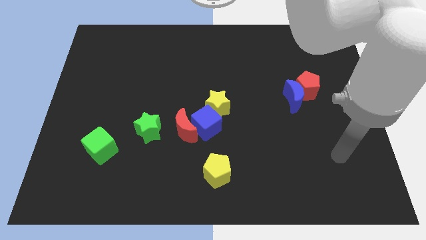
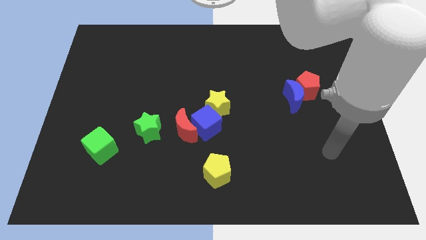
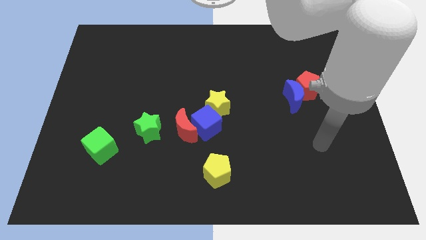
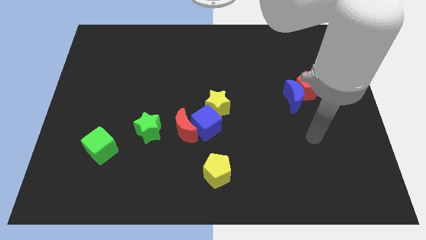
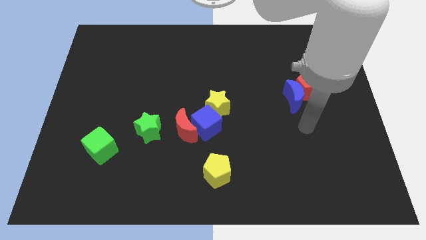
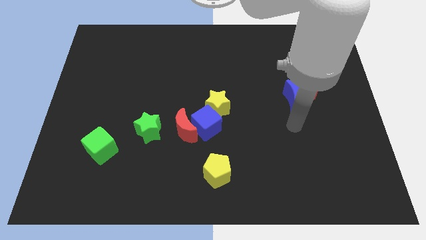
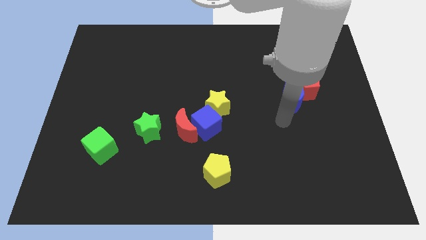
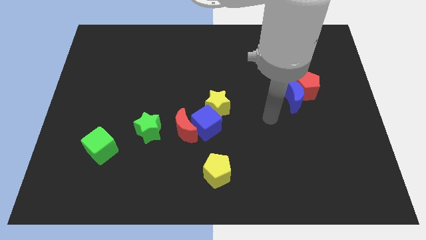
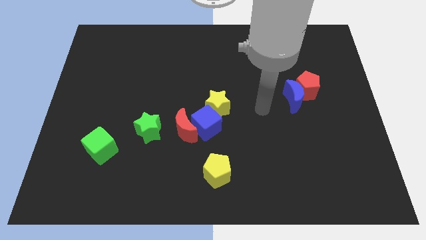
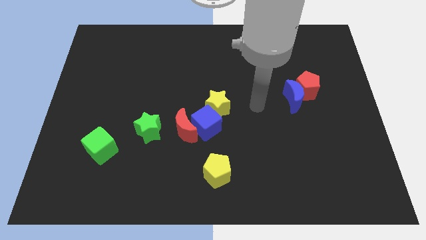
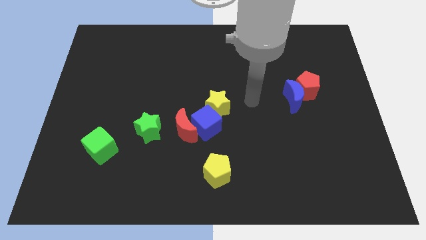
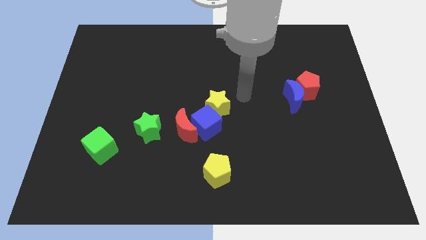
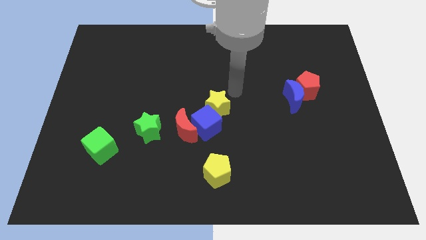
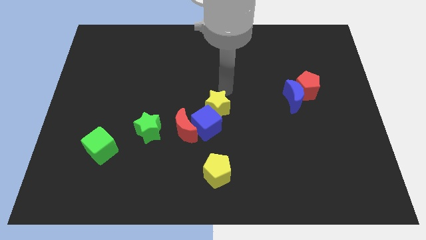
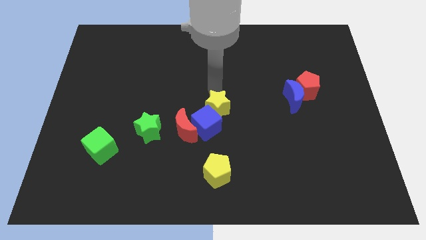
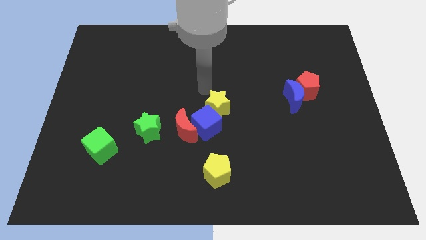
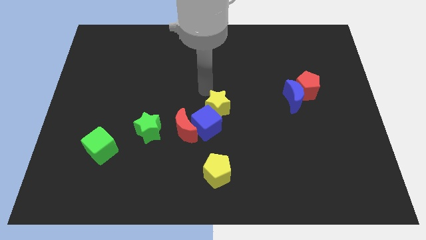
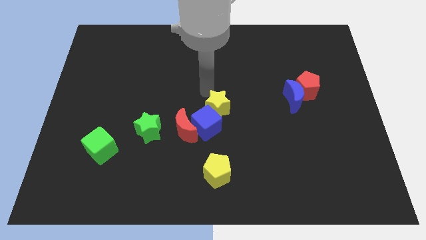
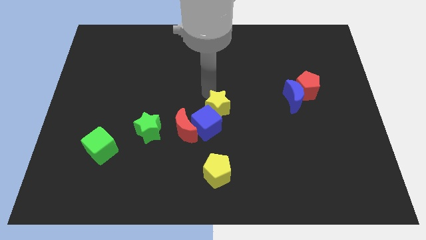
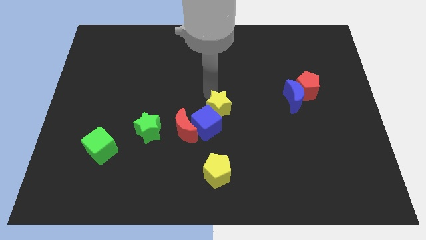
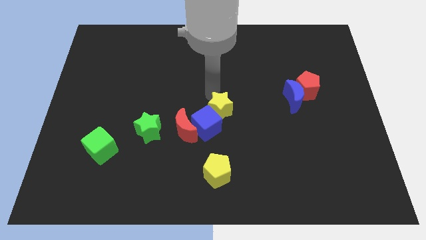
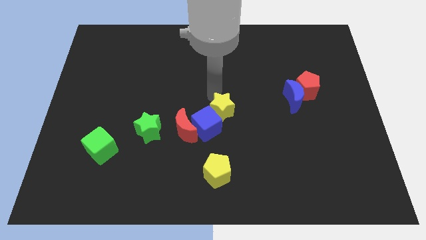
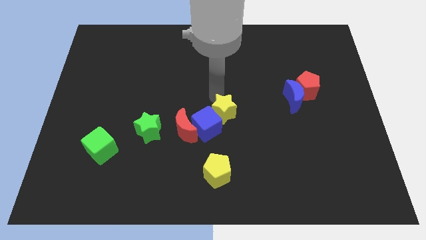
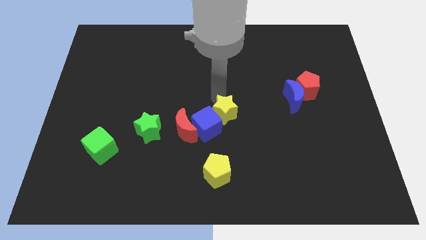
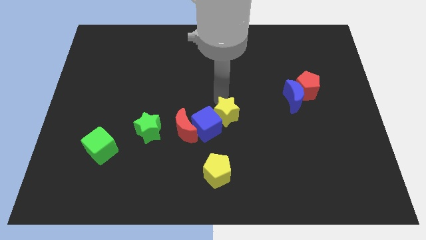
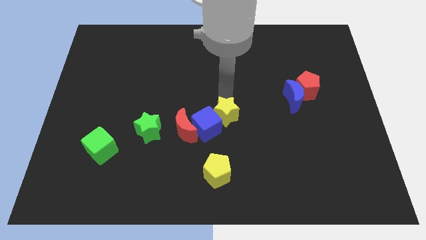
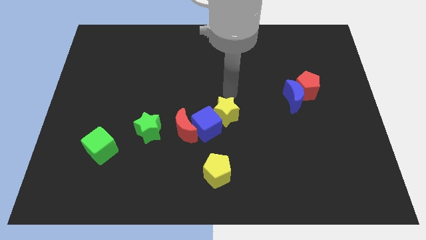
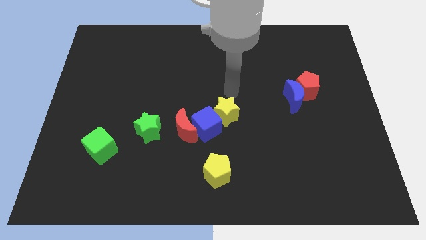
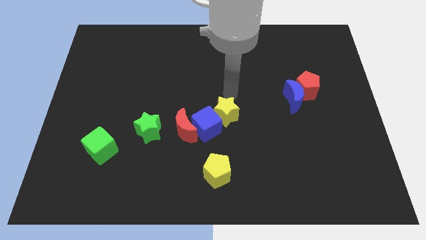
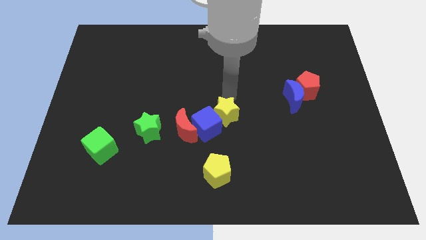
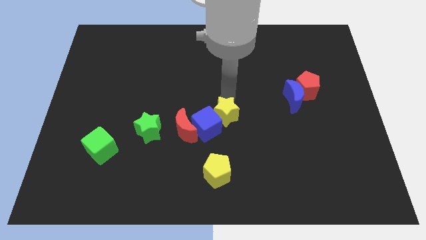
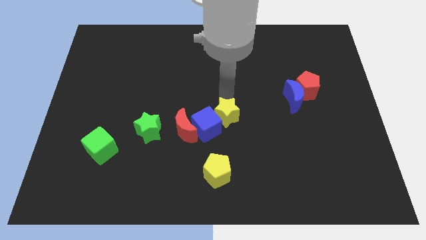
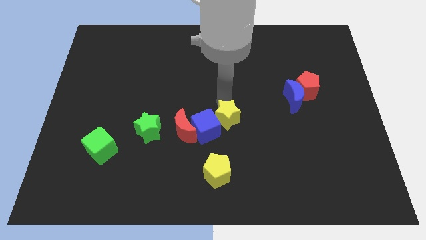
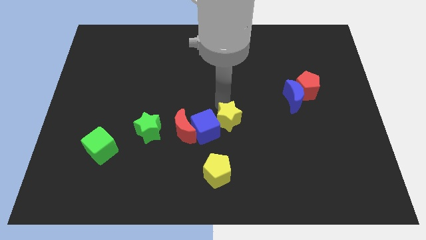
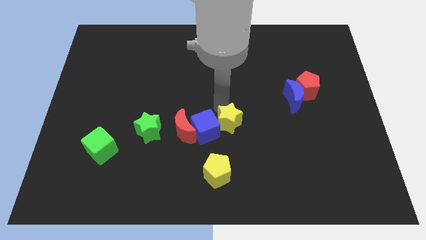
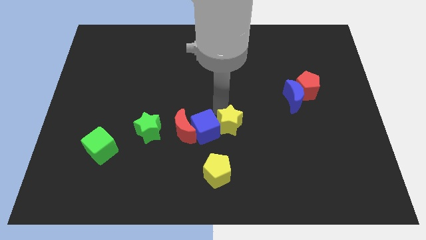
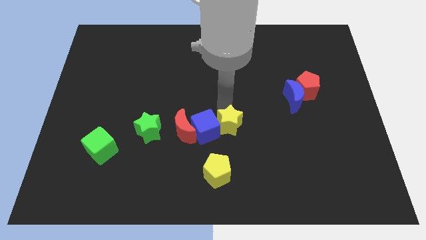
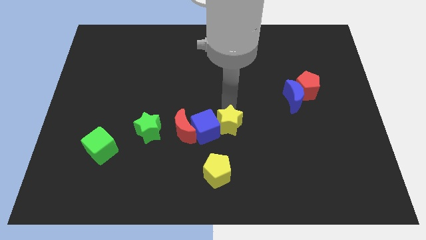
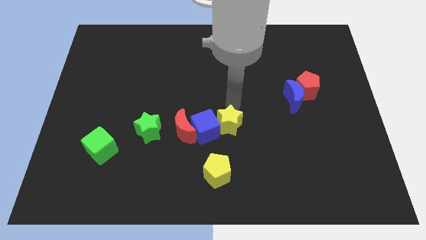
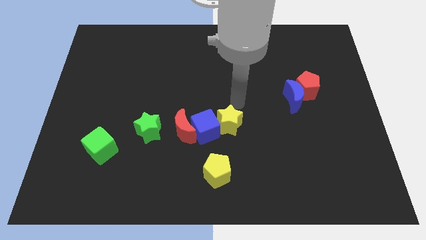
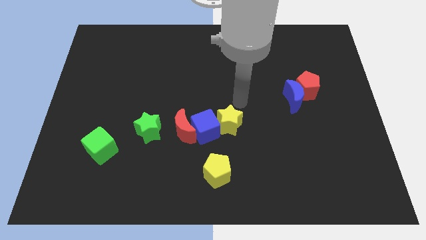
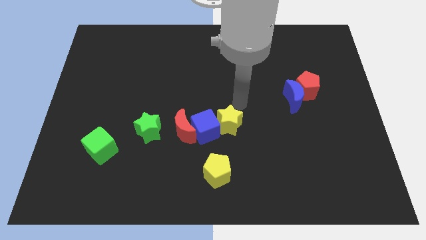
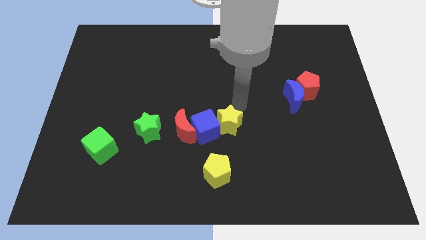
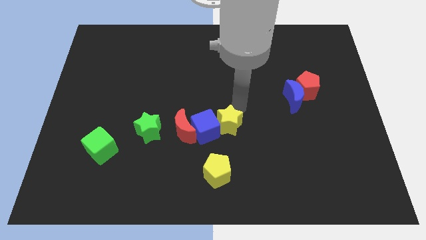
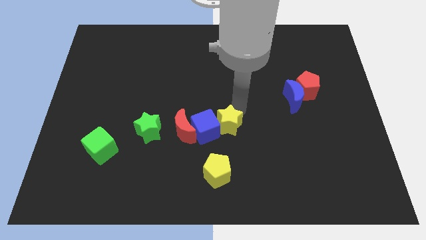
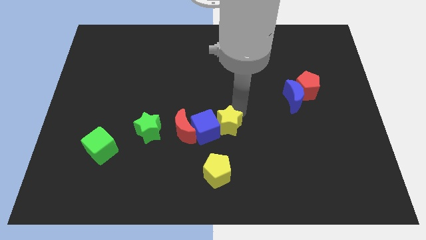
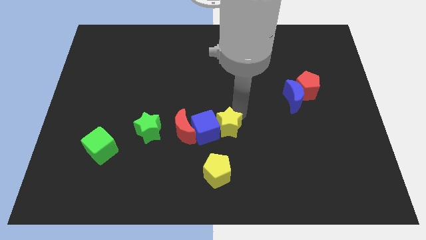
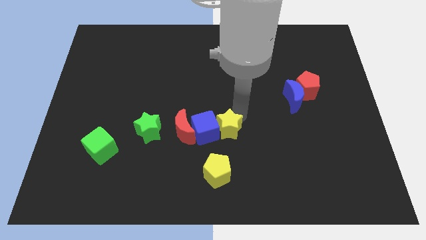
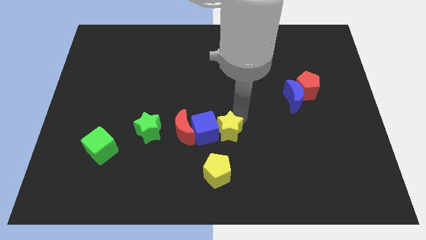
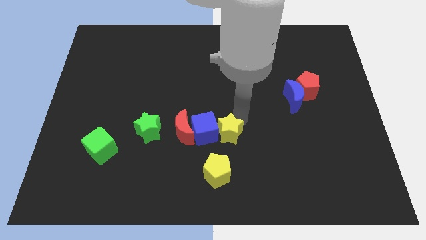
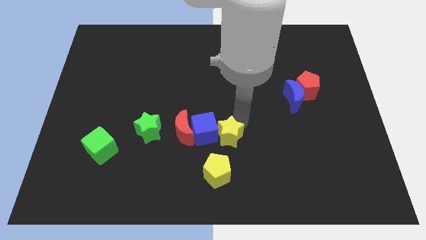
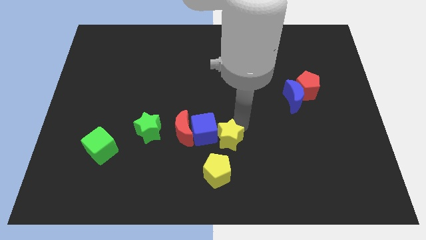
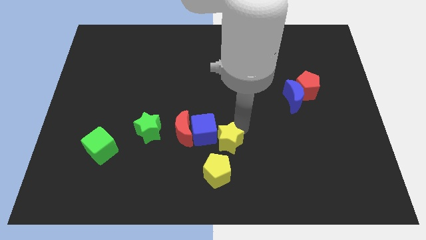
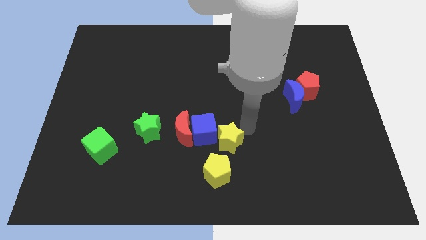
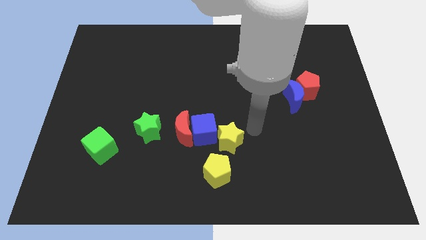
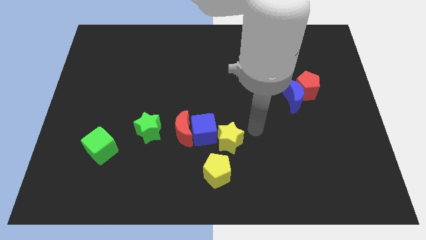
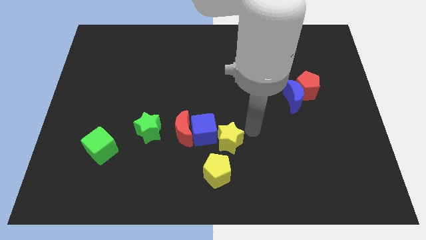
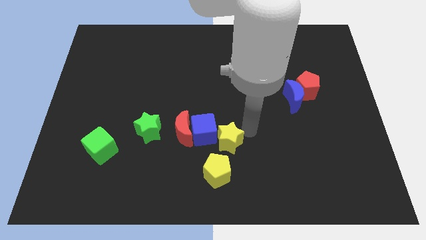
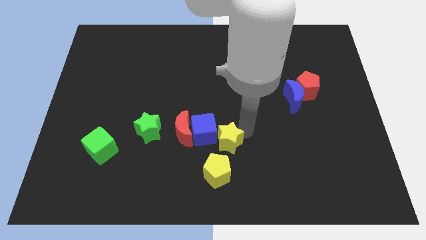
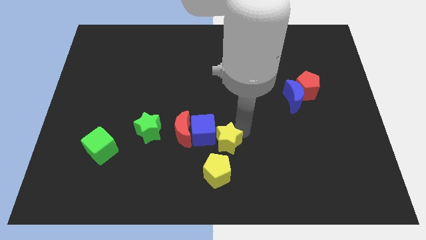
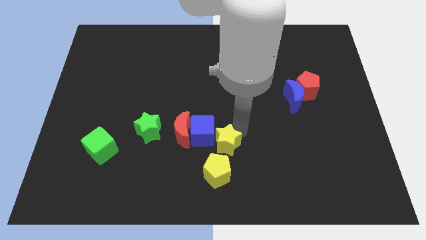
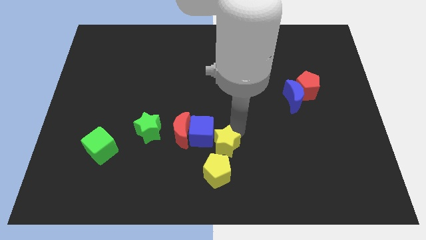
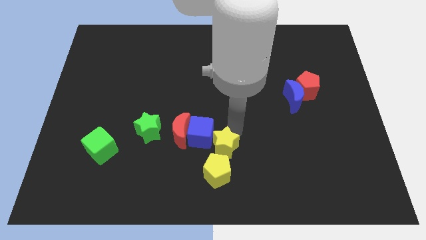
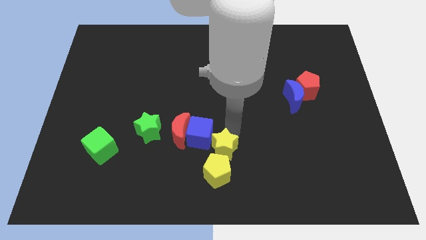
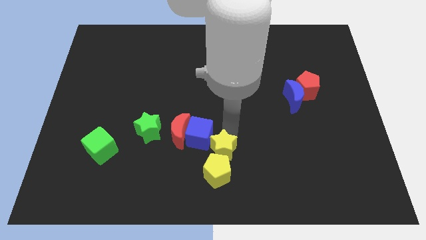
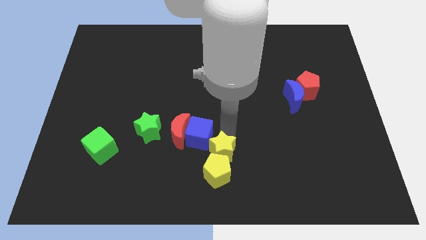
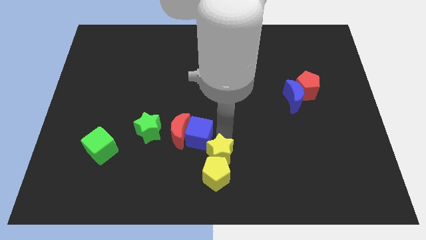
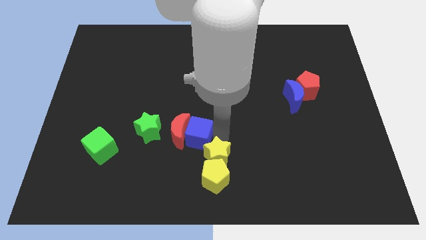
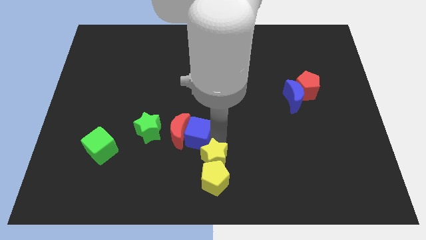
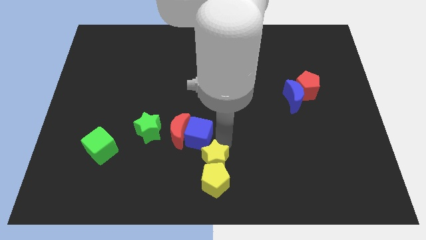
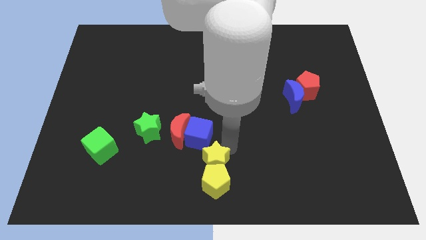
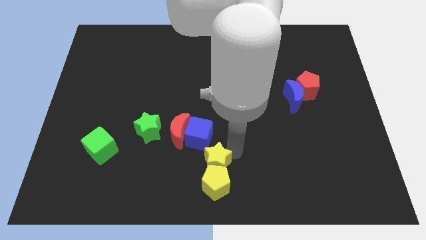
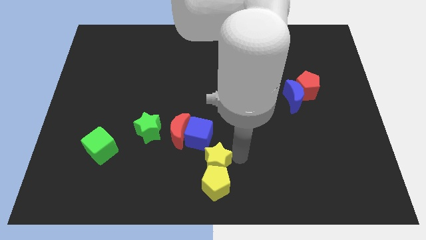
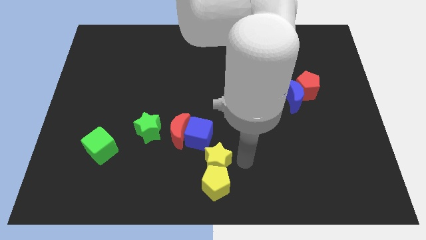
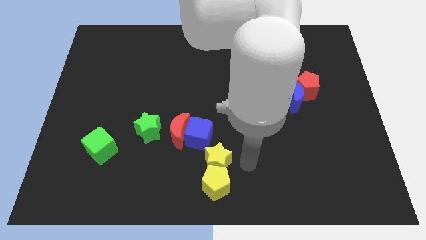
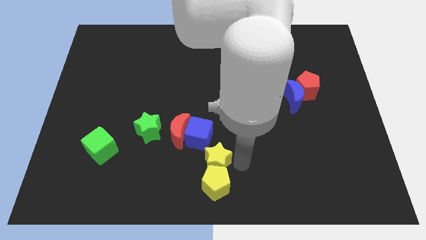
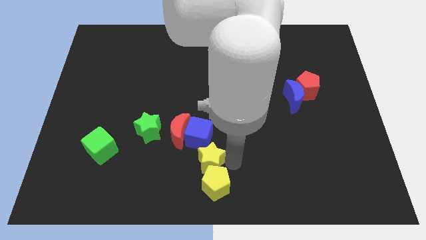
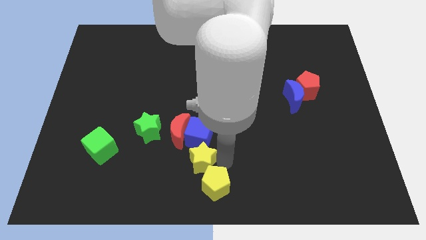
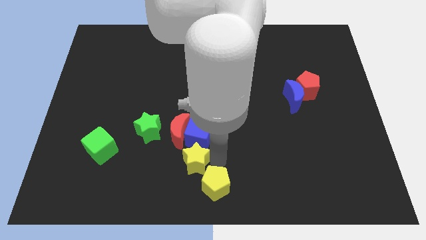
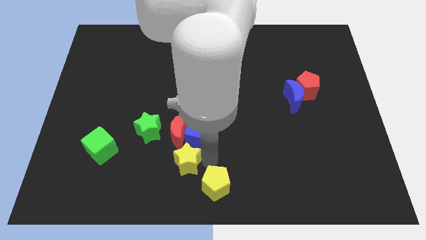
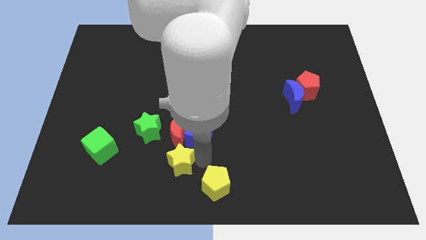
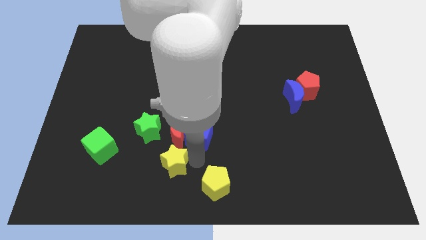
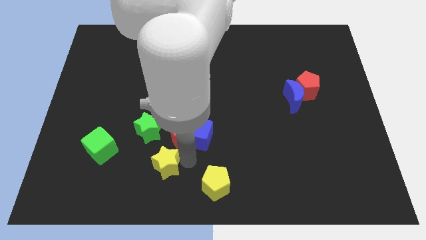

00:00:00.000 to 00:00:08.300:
move the yellow star to the bottom side of the green star
